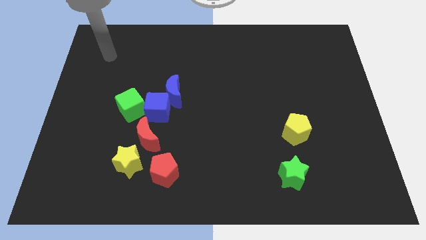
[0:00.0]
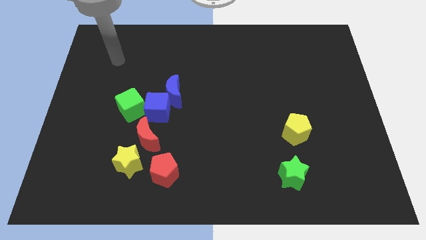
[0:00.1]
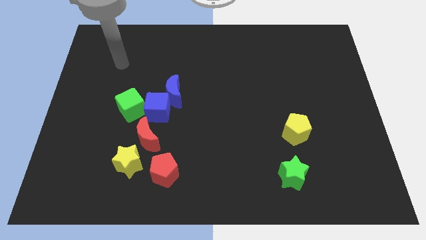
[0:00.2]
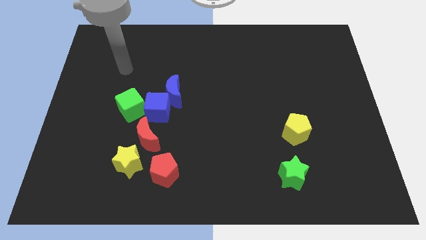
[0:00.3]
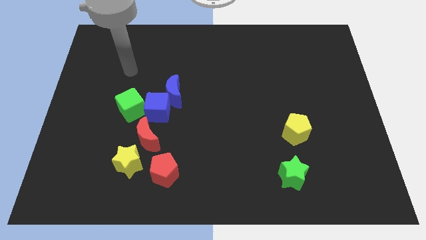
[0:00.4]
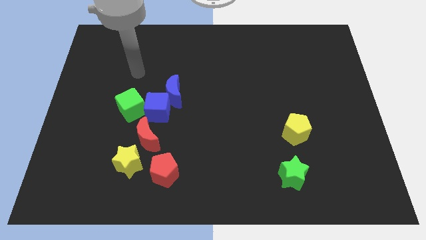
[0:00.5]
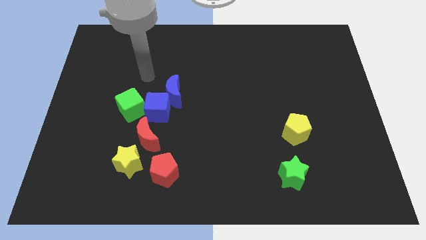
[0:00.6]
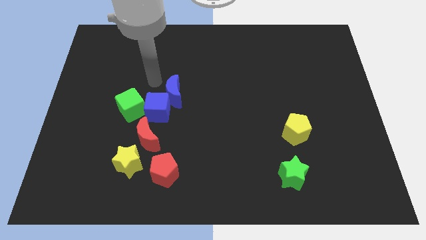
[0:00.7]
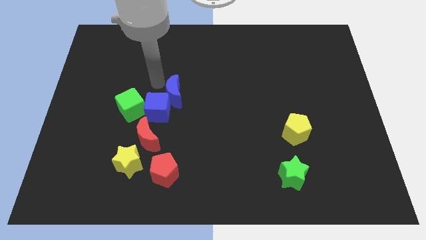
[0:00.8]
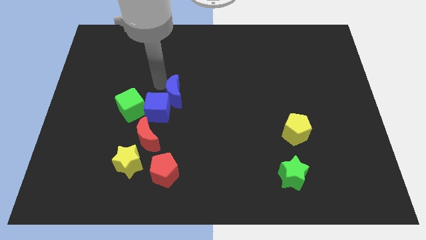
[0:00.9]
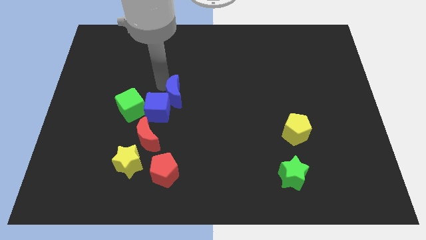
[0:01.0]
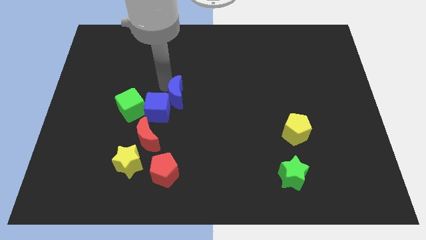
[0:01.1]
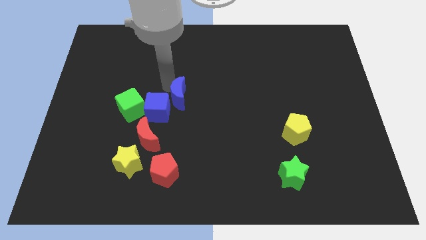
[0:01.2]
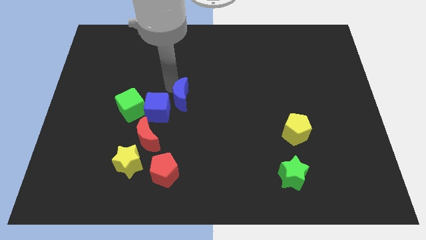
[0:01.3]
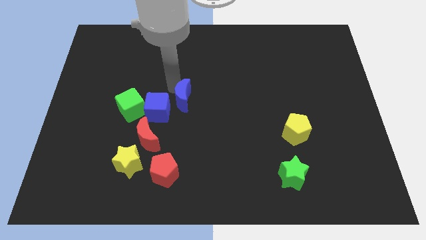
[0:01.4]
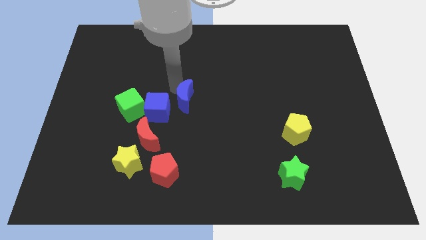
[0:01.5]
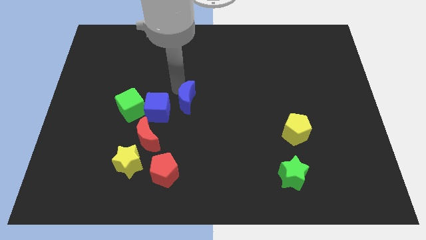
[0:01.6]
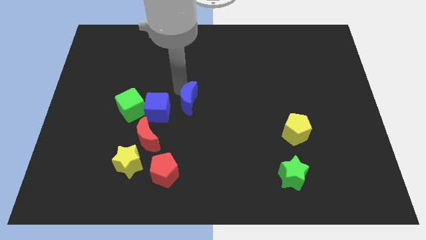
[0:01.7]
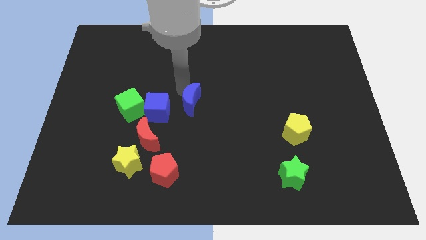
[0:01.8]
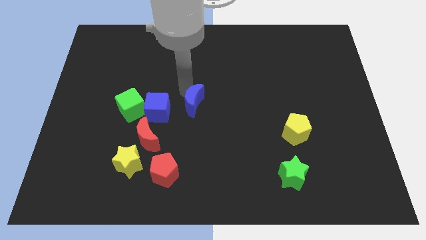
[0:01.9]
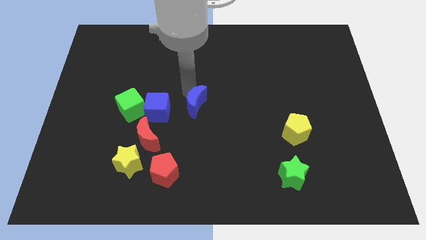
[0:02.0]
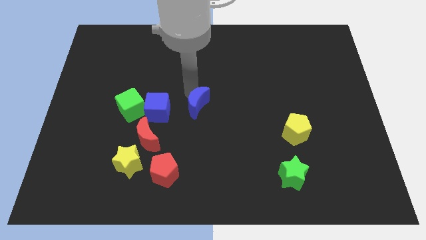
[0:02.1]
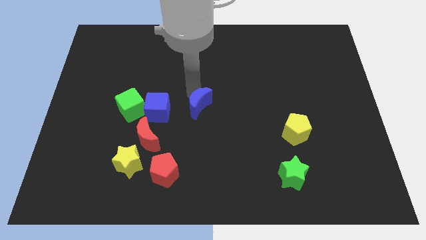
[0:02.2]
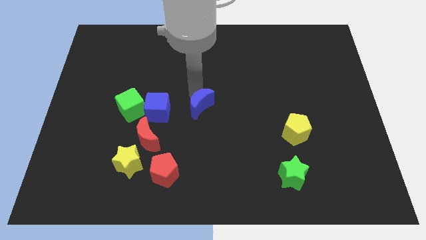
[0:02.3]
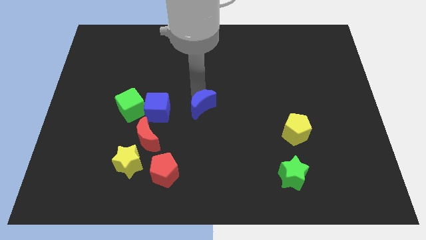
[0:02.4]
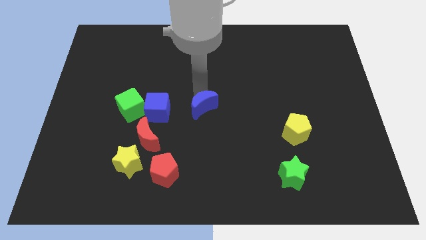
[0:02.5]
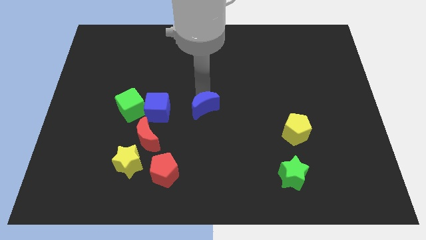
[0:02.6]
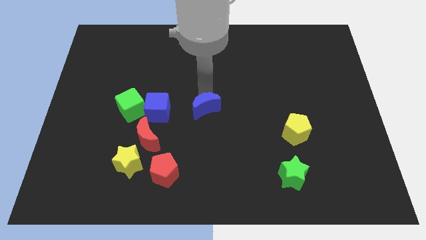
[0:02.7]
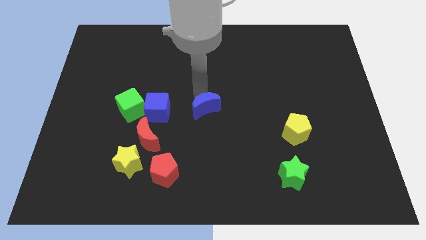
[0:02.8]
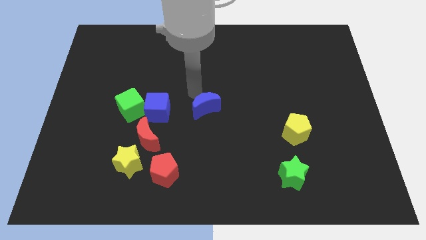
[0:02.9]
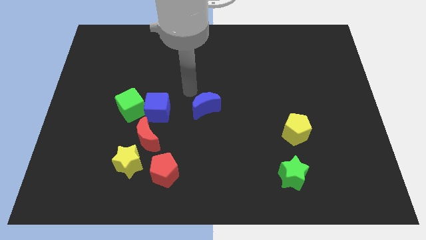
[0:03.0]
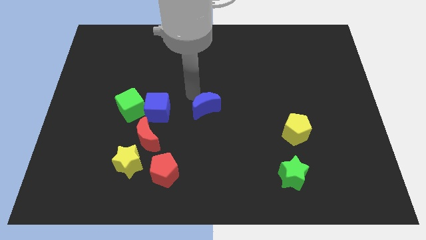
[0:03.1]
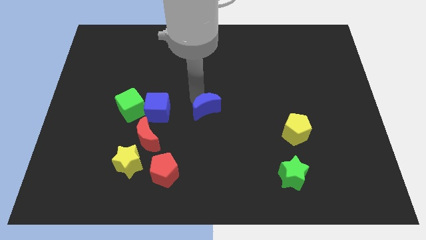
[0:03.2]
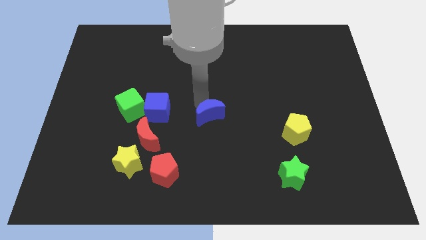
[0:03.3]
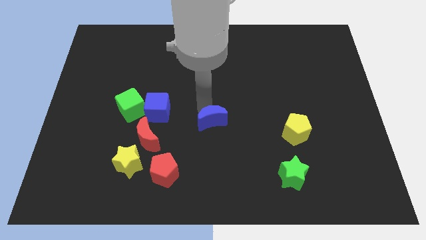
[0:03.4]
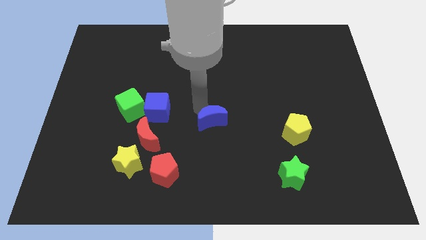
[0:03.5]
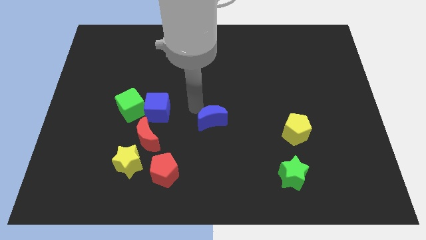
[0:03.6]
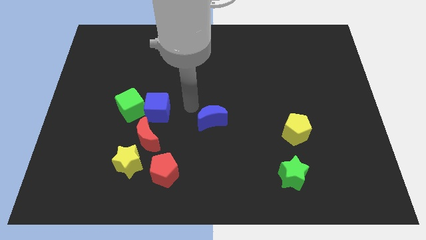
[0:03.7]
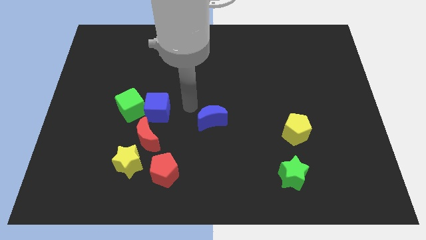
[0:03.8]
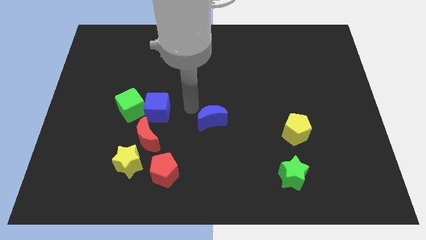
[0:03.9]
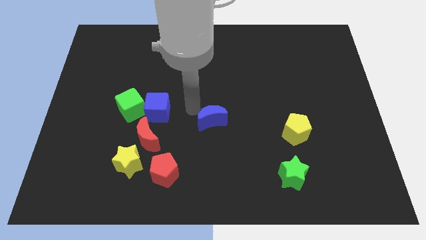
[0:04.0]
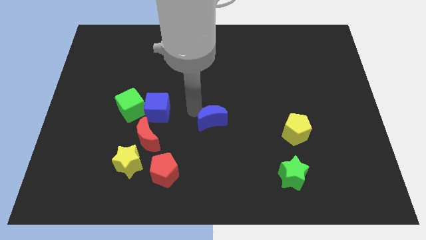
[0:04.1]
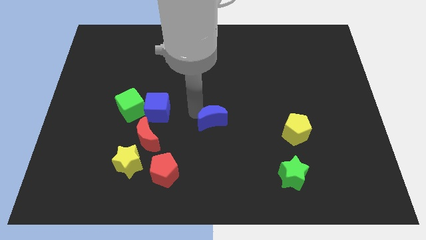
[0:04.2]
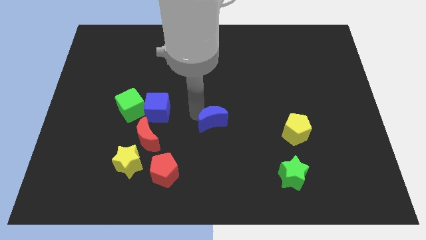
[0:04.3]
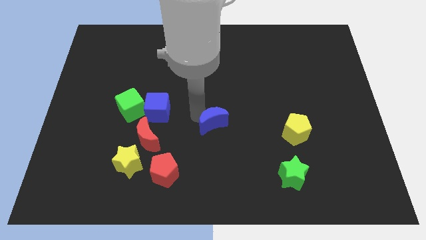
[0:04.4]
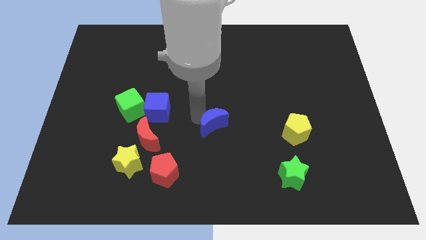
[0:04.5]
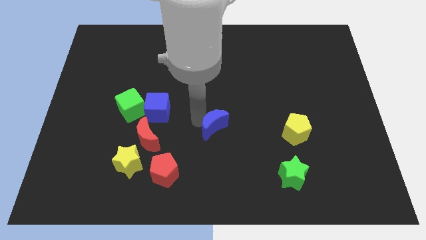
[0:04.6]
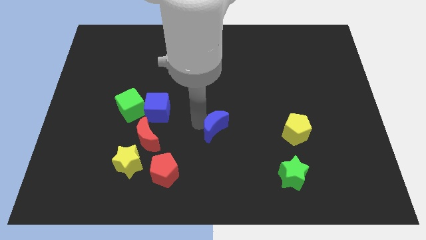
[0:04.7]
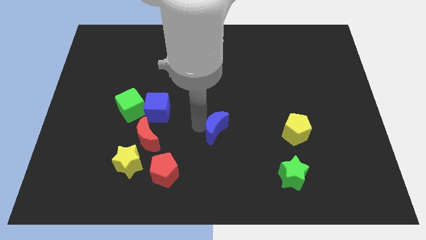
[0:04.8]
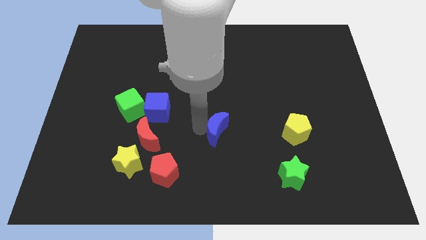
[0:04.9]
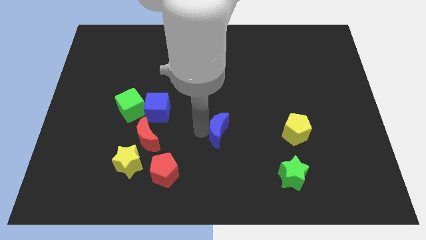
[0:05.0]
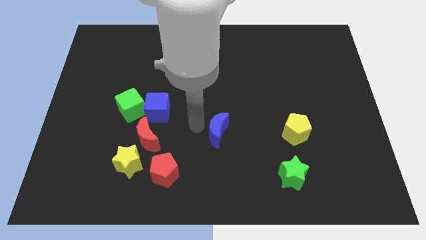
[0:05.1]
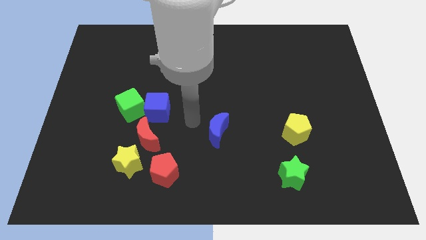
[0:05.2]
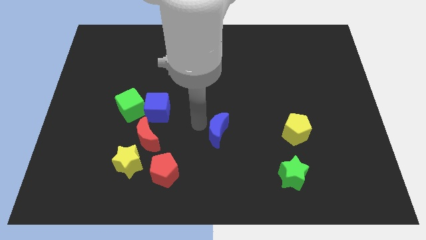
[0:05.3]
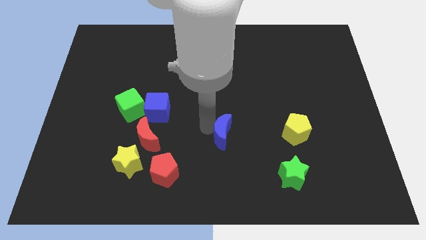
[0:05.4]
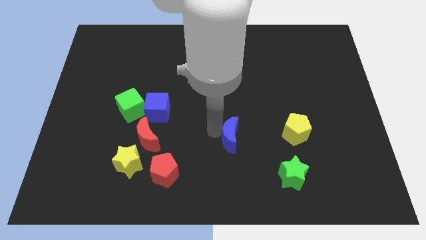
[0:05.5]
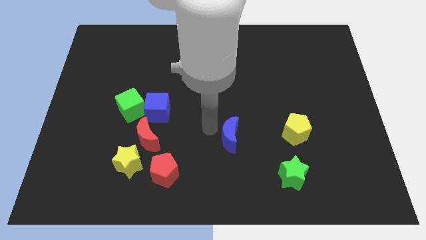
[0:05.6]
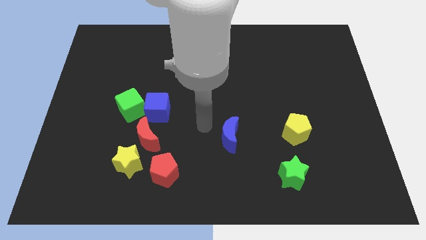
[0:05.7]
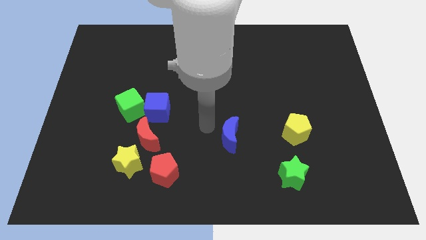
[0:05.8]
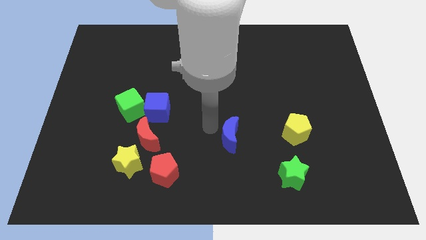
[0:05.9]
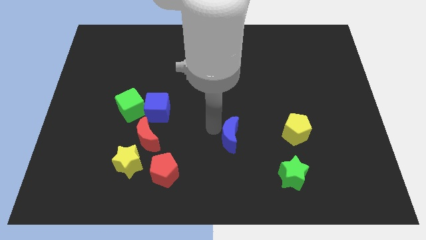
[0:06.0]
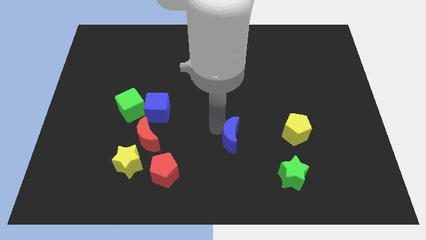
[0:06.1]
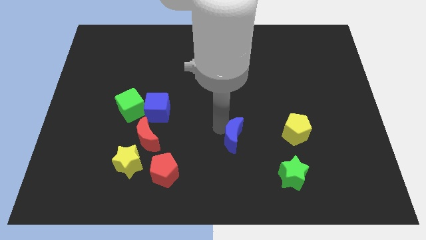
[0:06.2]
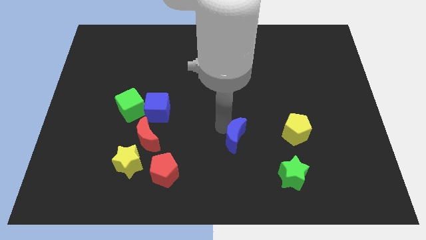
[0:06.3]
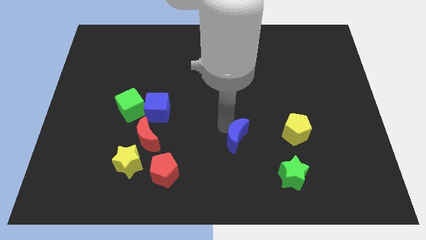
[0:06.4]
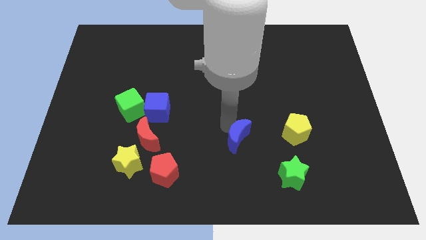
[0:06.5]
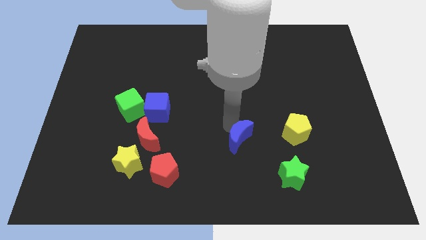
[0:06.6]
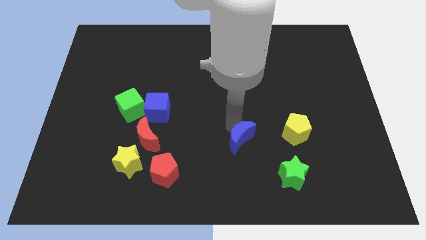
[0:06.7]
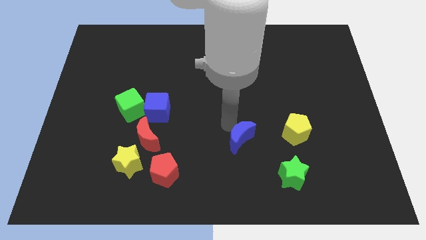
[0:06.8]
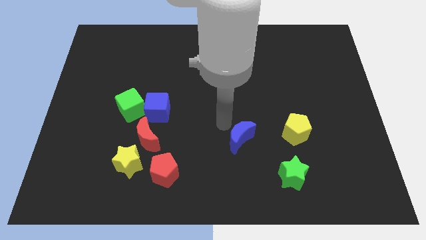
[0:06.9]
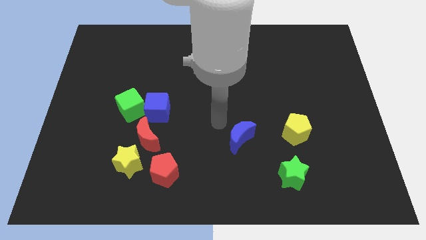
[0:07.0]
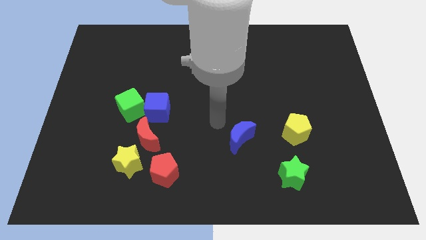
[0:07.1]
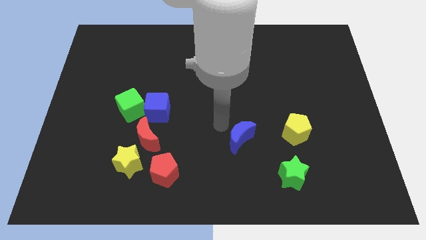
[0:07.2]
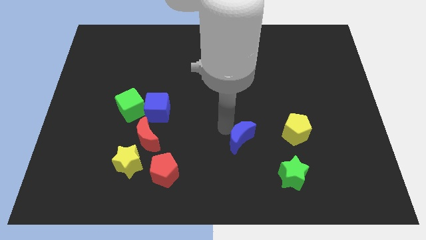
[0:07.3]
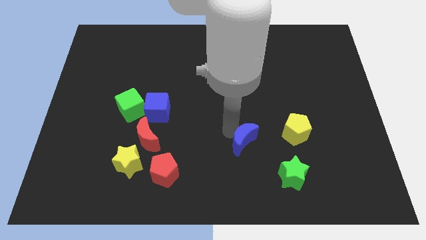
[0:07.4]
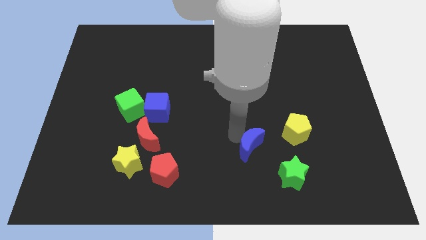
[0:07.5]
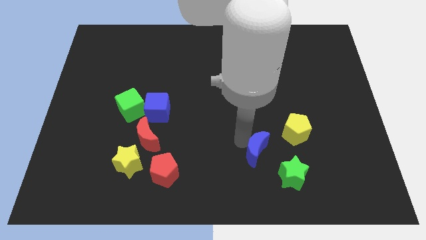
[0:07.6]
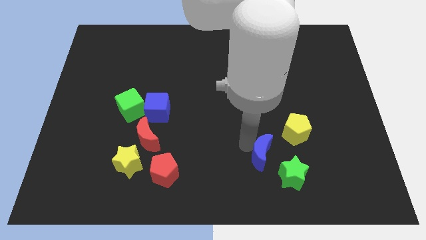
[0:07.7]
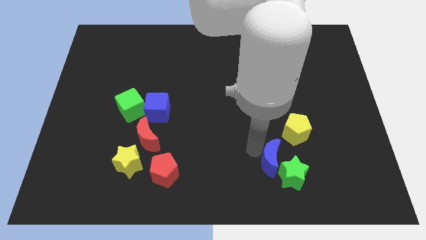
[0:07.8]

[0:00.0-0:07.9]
put the blue moon next to the green star
